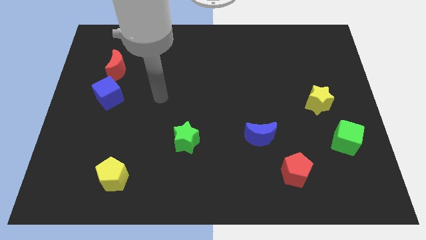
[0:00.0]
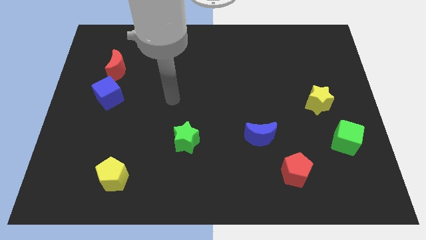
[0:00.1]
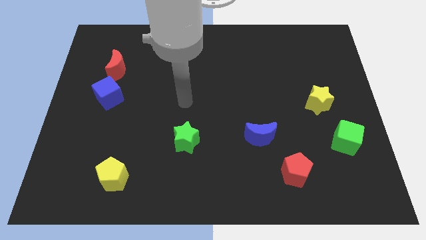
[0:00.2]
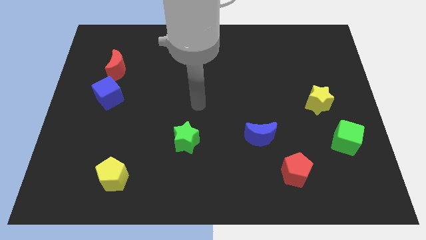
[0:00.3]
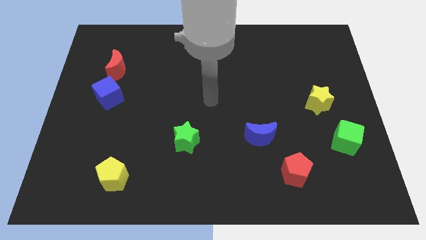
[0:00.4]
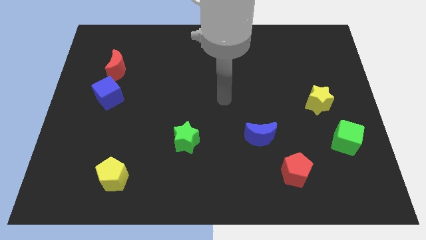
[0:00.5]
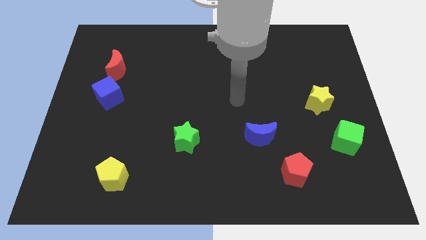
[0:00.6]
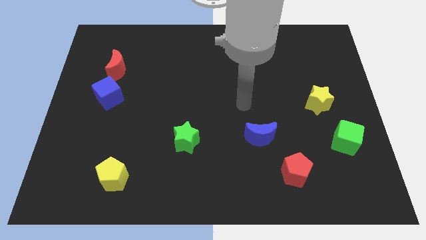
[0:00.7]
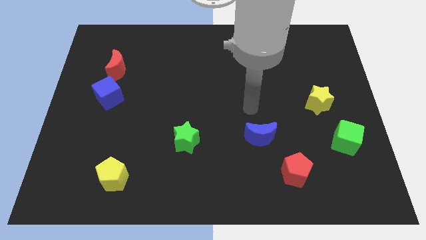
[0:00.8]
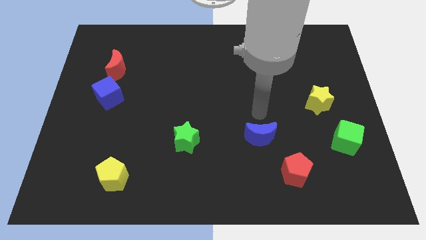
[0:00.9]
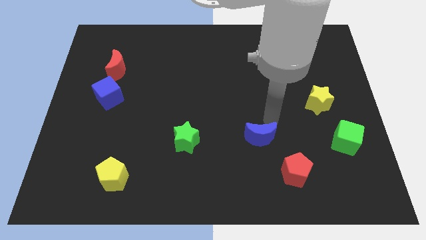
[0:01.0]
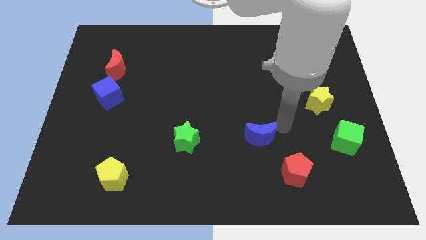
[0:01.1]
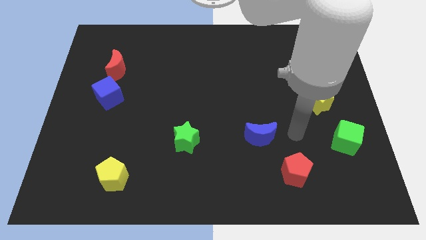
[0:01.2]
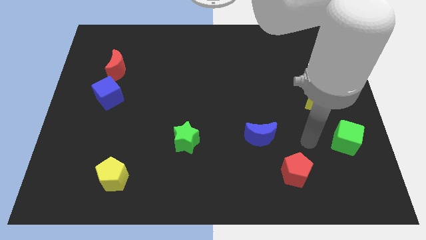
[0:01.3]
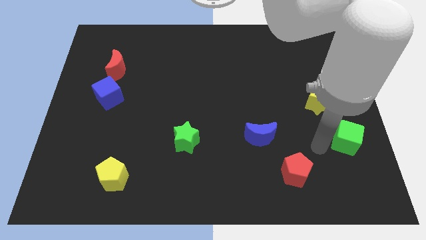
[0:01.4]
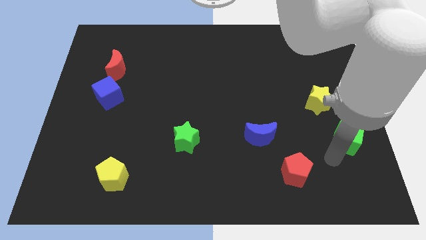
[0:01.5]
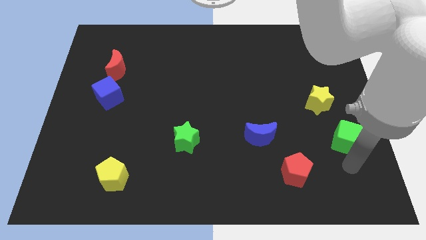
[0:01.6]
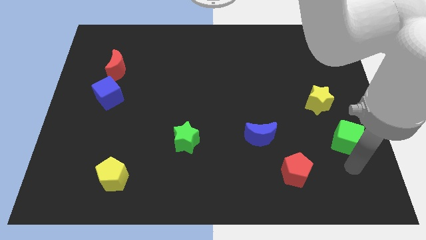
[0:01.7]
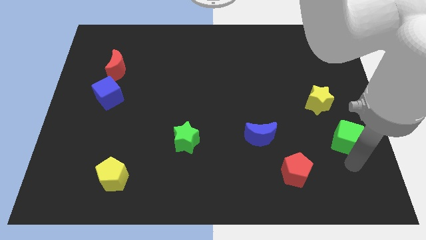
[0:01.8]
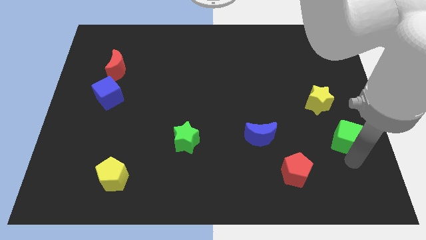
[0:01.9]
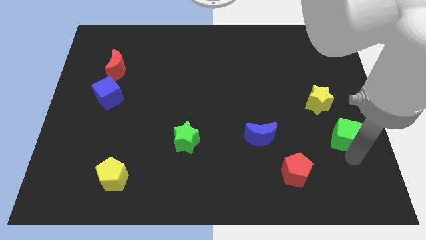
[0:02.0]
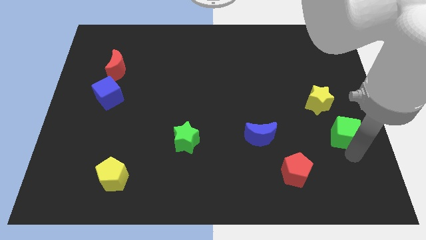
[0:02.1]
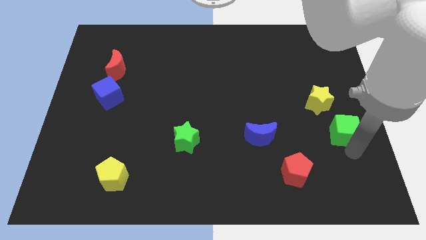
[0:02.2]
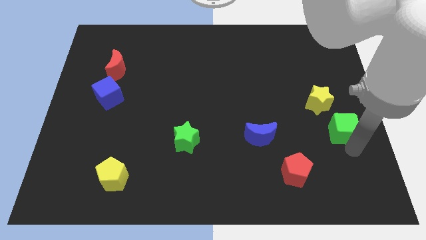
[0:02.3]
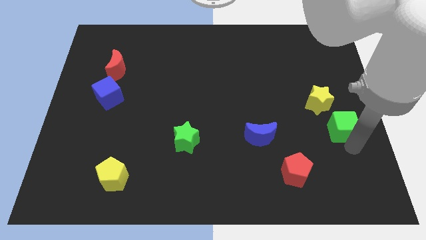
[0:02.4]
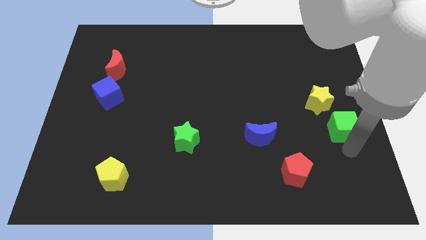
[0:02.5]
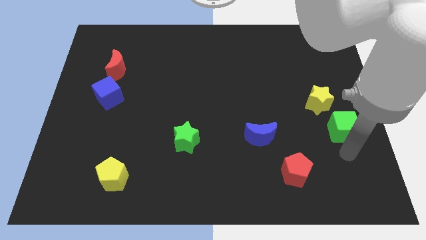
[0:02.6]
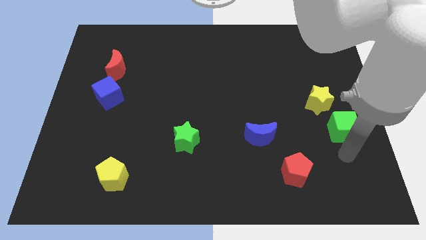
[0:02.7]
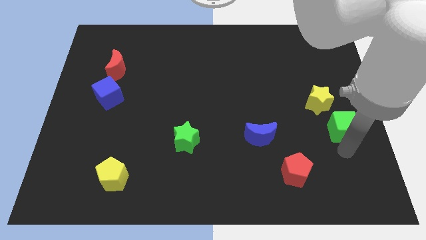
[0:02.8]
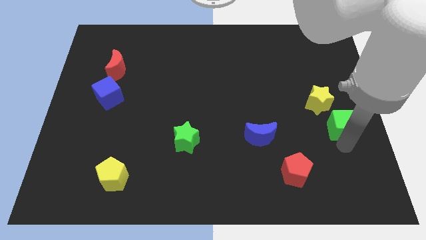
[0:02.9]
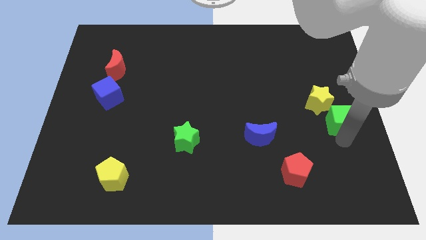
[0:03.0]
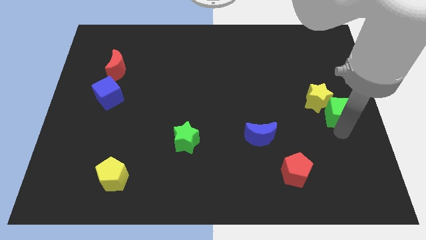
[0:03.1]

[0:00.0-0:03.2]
move the green cube somewhat upwards

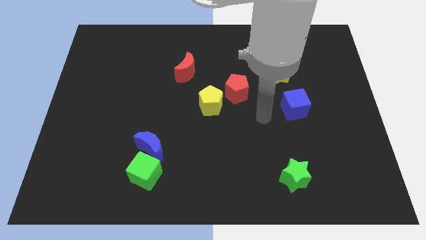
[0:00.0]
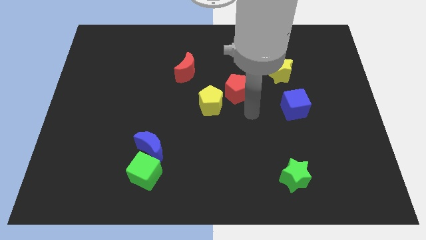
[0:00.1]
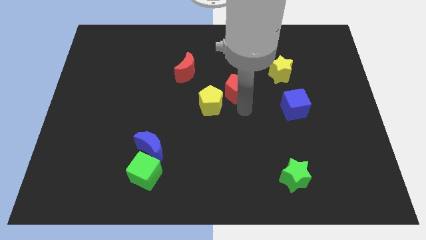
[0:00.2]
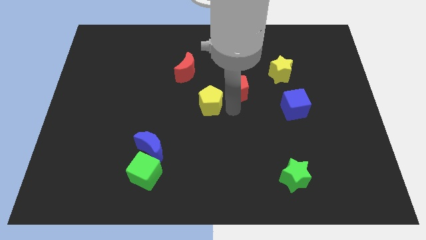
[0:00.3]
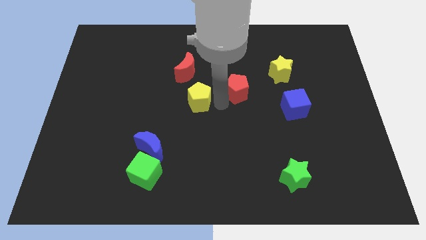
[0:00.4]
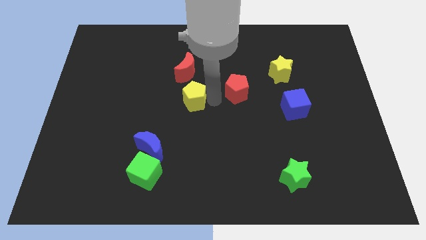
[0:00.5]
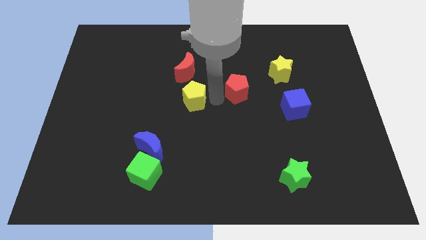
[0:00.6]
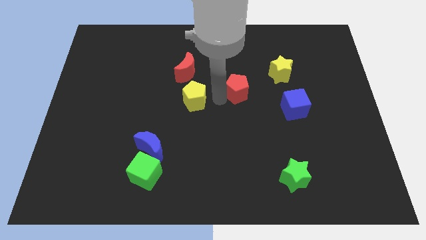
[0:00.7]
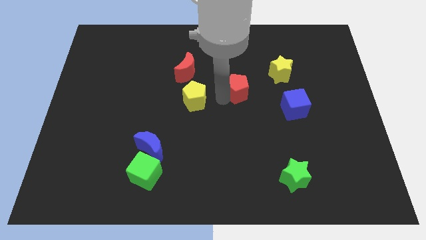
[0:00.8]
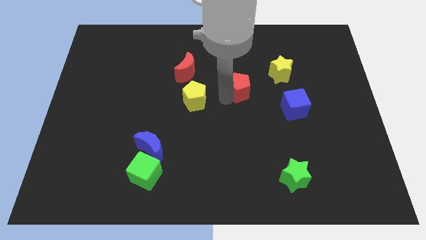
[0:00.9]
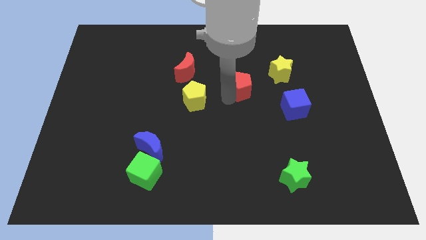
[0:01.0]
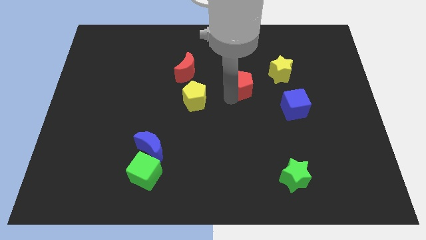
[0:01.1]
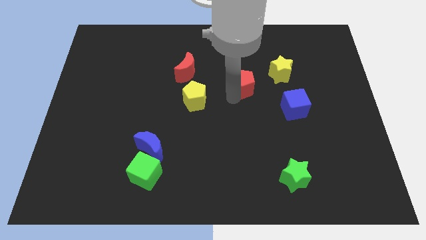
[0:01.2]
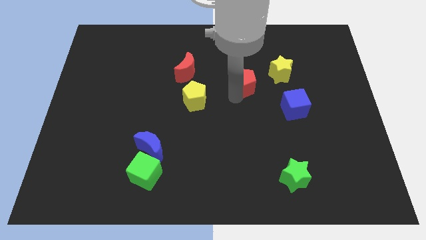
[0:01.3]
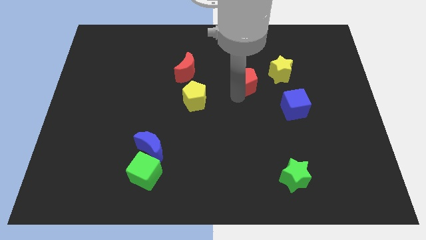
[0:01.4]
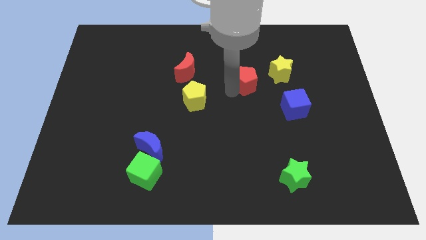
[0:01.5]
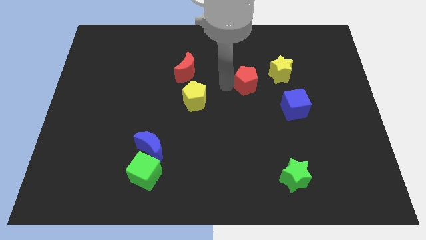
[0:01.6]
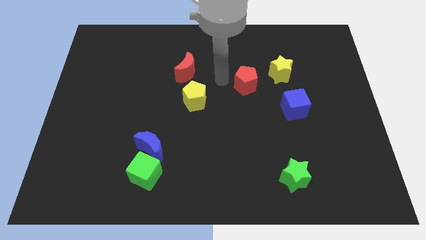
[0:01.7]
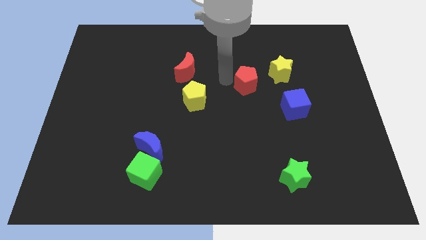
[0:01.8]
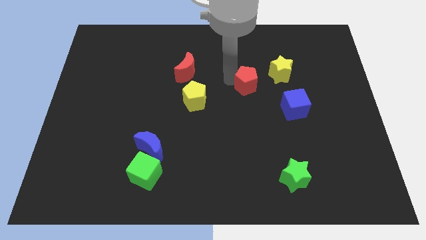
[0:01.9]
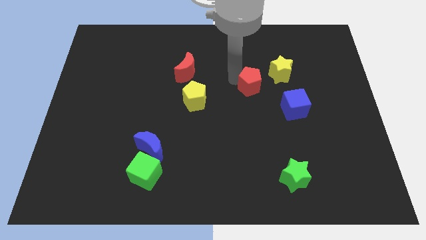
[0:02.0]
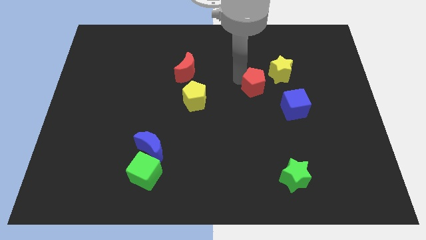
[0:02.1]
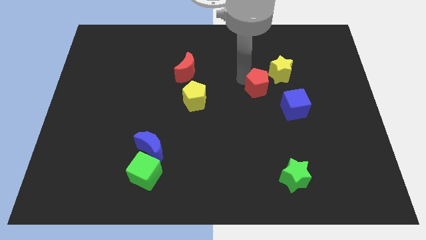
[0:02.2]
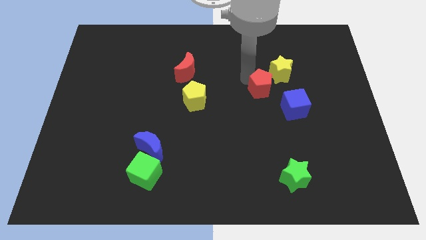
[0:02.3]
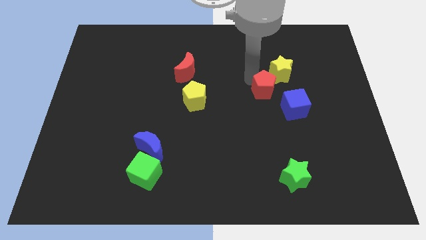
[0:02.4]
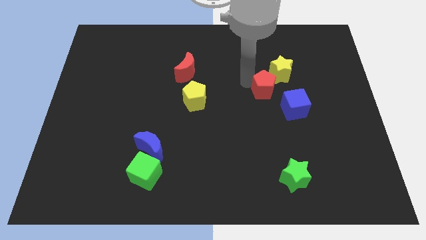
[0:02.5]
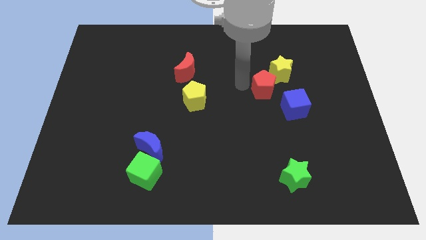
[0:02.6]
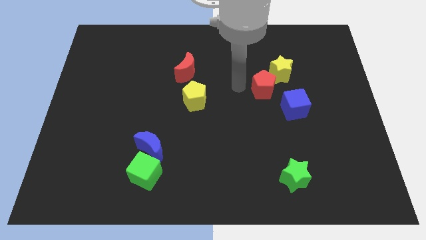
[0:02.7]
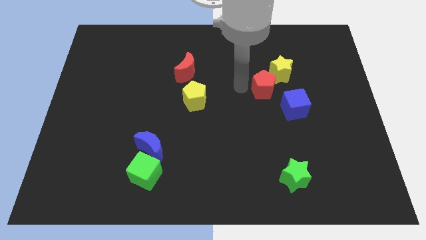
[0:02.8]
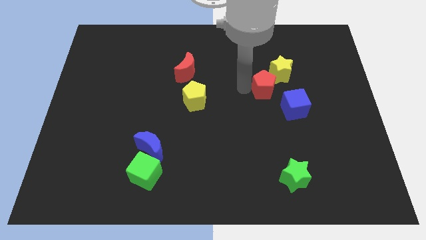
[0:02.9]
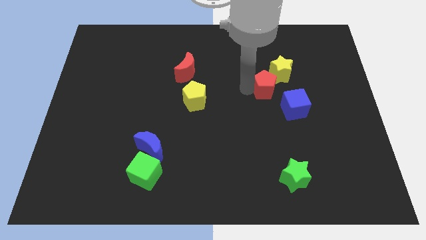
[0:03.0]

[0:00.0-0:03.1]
slightly move the red pentagon to the right

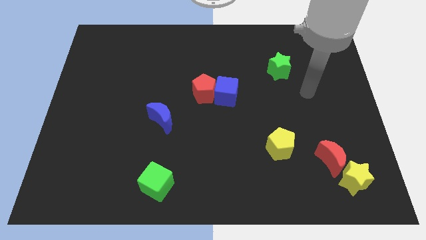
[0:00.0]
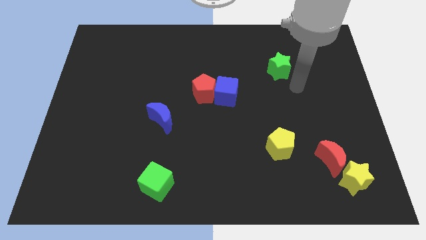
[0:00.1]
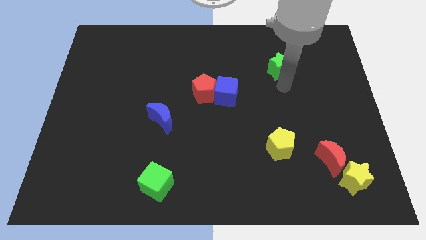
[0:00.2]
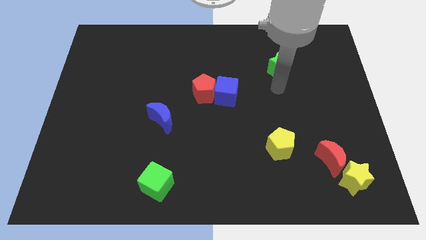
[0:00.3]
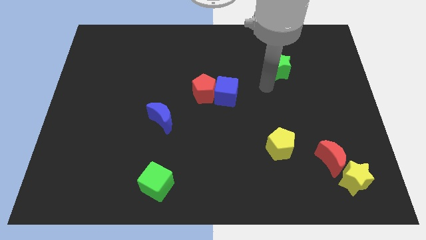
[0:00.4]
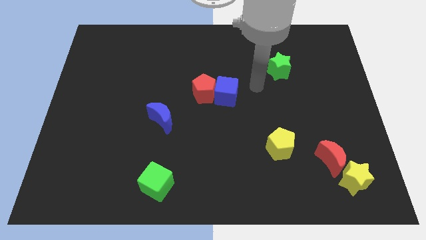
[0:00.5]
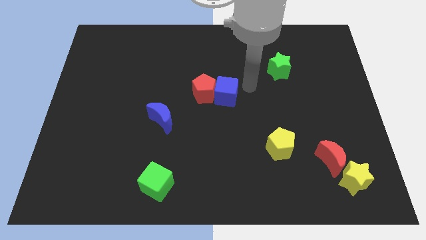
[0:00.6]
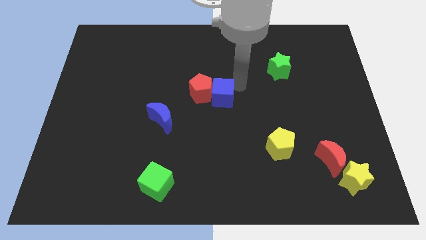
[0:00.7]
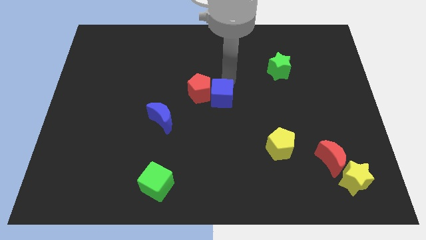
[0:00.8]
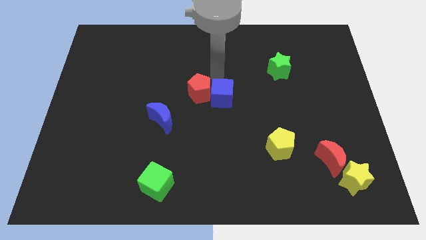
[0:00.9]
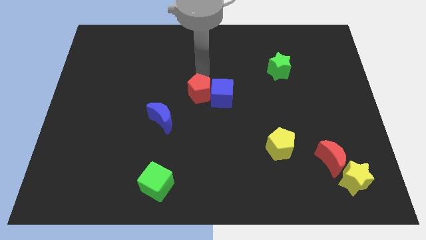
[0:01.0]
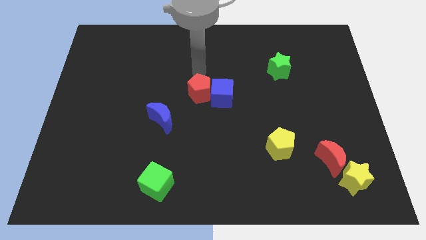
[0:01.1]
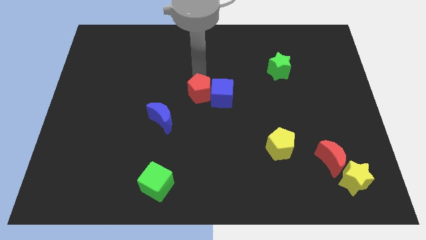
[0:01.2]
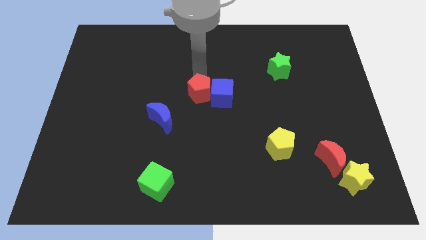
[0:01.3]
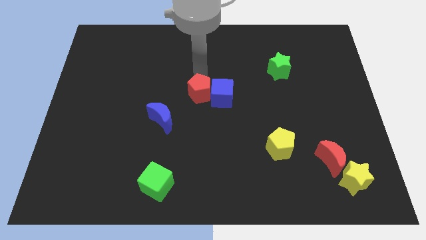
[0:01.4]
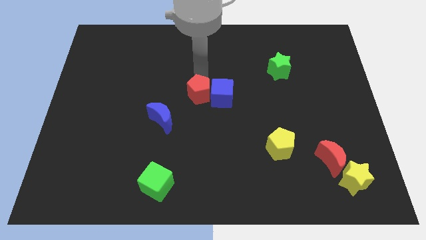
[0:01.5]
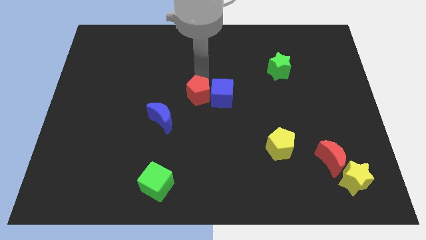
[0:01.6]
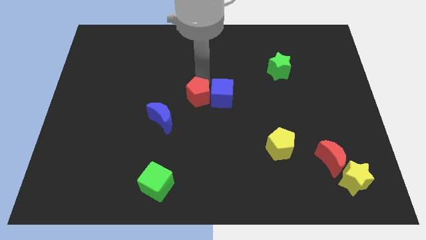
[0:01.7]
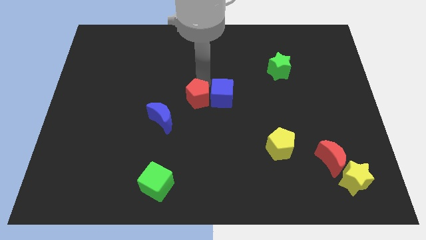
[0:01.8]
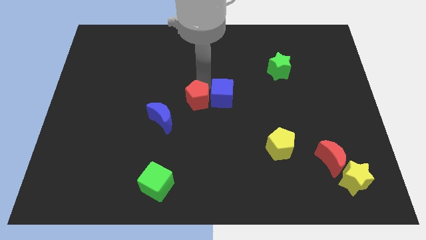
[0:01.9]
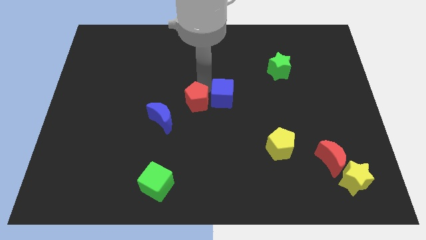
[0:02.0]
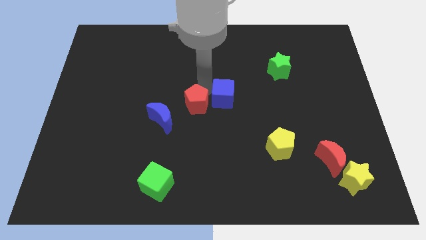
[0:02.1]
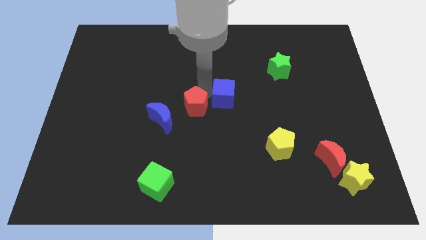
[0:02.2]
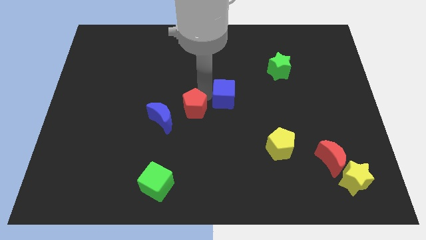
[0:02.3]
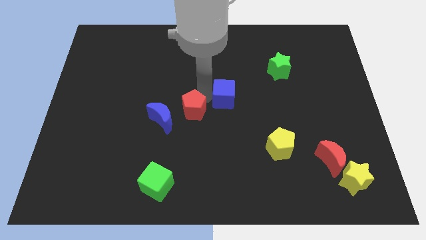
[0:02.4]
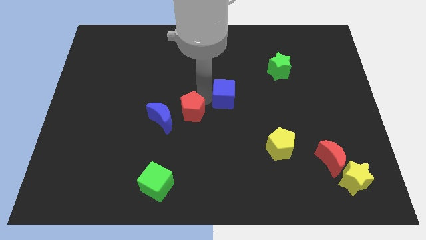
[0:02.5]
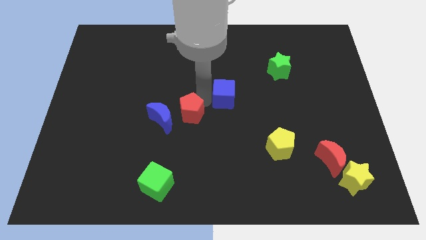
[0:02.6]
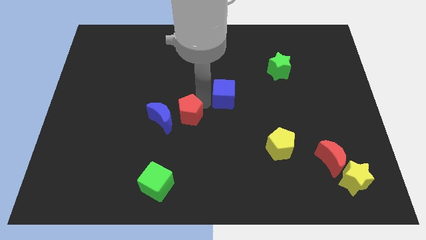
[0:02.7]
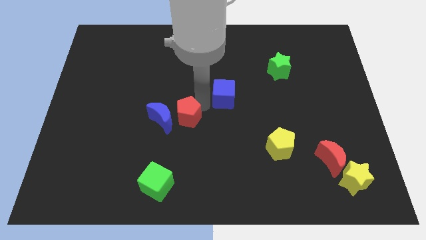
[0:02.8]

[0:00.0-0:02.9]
slightly move the red pentagon downwards and left diagonally
